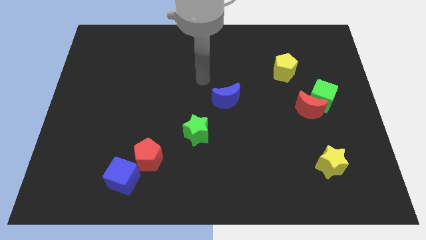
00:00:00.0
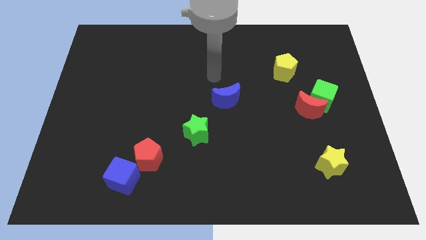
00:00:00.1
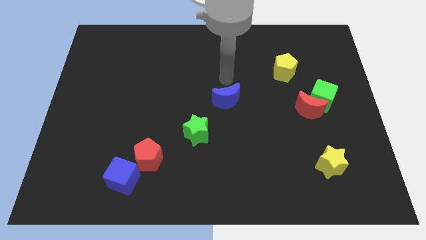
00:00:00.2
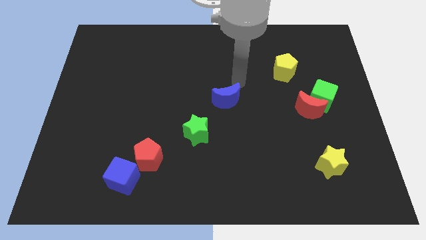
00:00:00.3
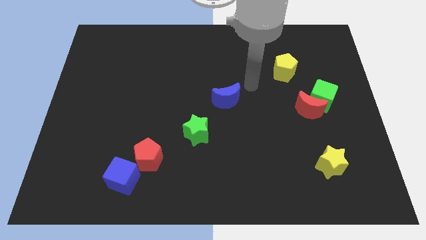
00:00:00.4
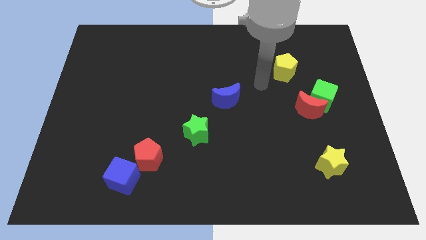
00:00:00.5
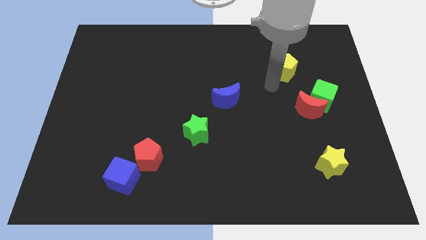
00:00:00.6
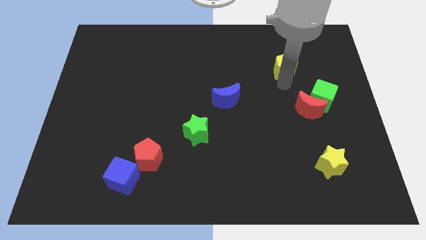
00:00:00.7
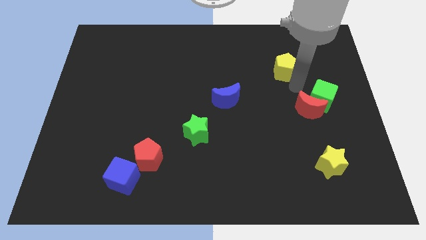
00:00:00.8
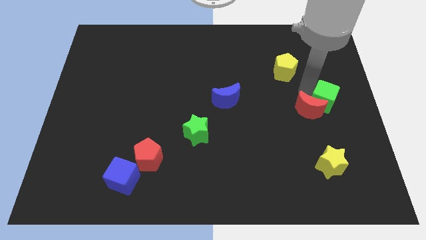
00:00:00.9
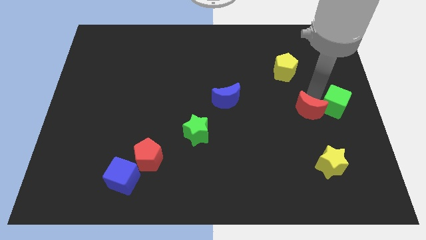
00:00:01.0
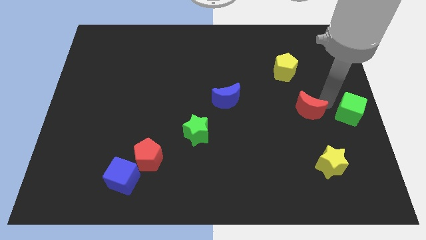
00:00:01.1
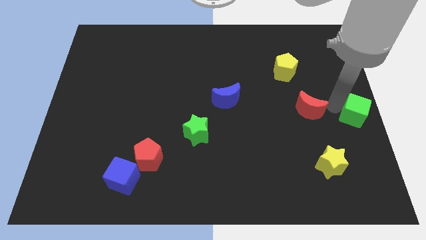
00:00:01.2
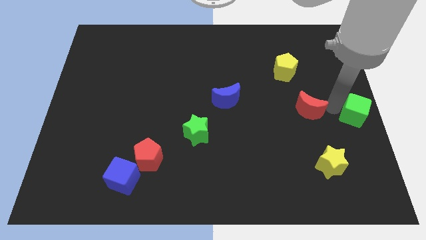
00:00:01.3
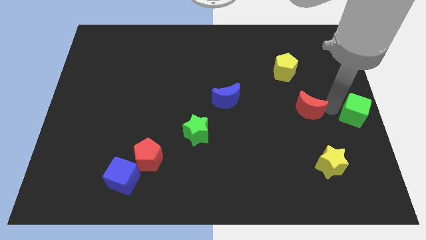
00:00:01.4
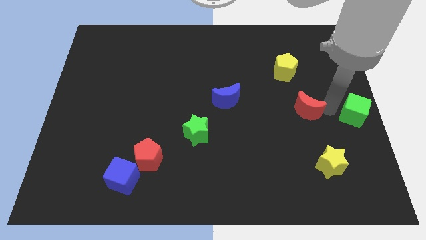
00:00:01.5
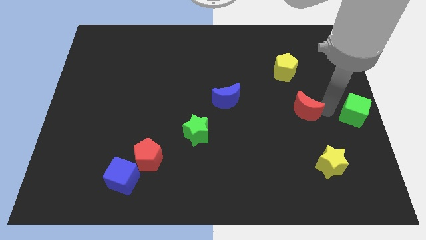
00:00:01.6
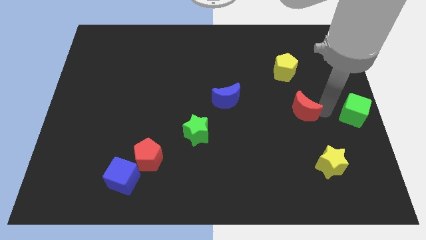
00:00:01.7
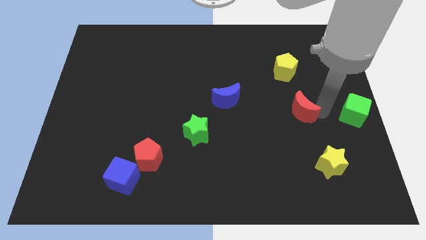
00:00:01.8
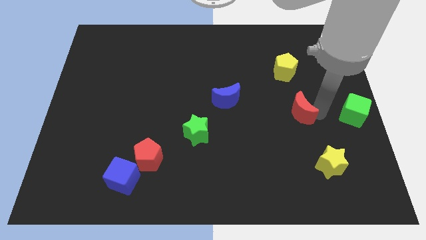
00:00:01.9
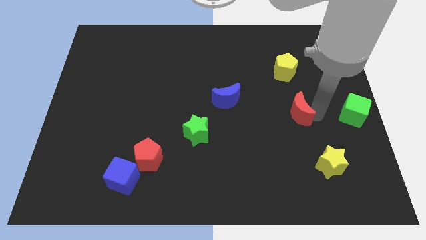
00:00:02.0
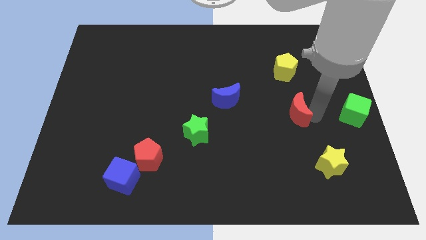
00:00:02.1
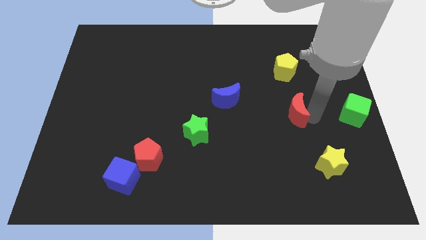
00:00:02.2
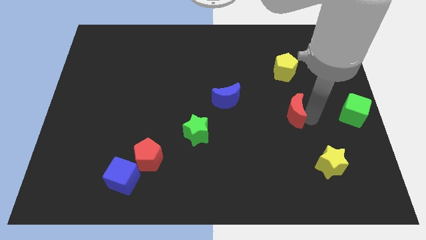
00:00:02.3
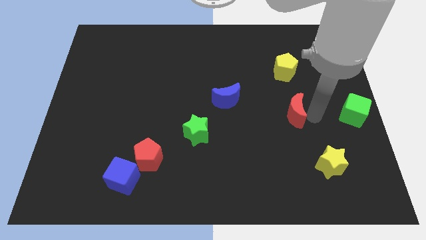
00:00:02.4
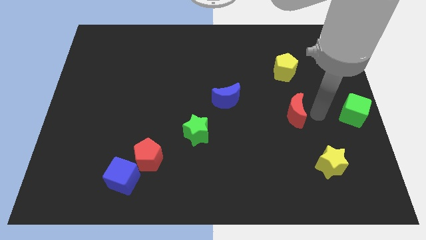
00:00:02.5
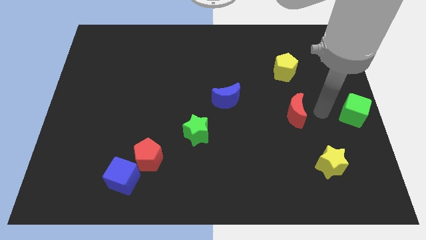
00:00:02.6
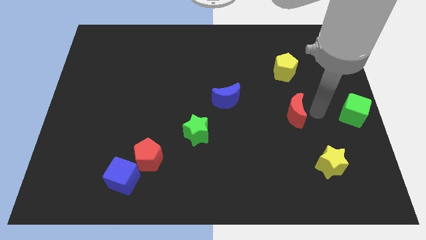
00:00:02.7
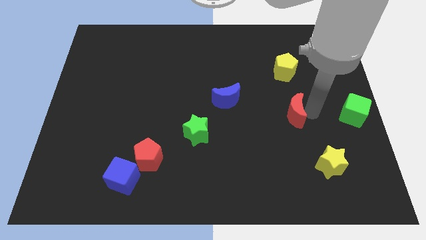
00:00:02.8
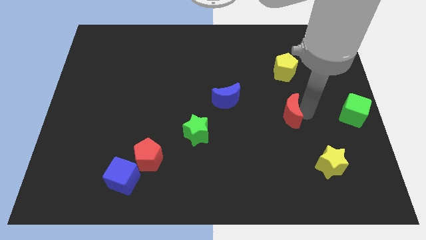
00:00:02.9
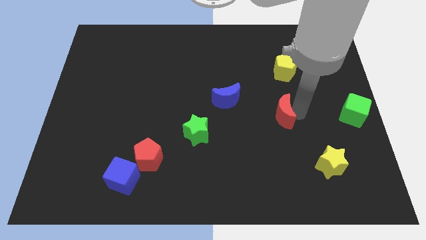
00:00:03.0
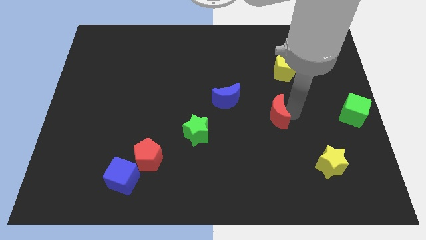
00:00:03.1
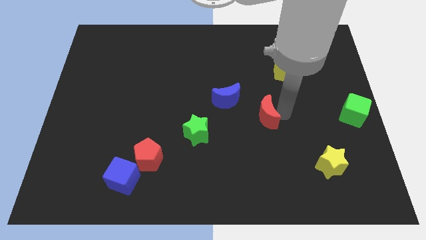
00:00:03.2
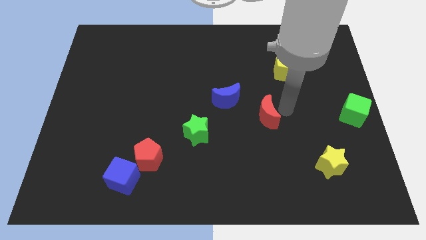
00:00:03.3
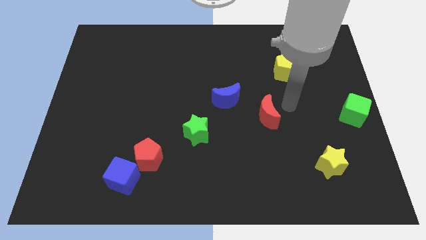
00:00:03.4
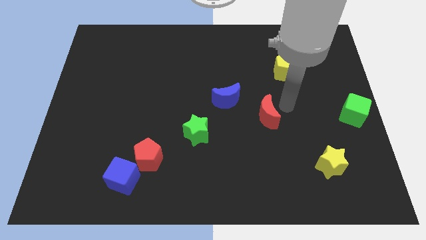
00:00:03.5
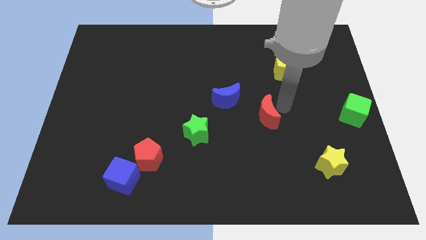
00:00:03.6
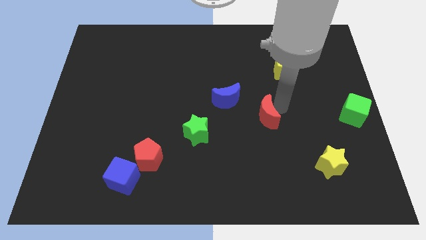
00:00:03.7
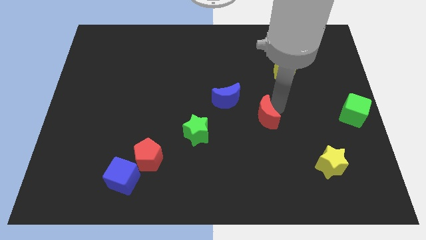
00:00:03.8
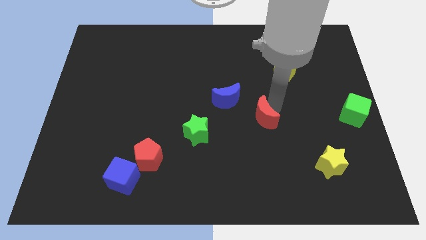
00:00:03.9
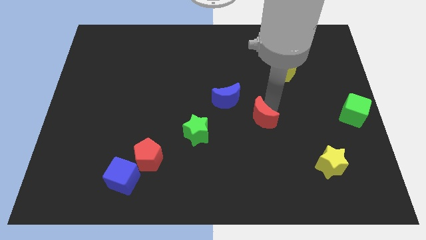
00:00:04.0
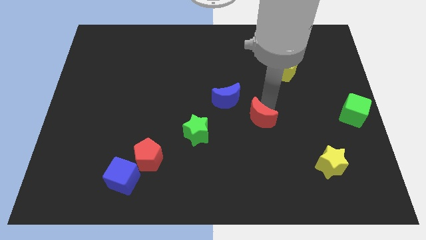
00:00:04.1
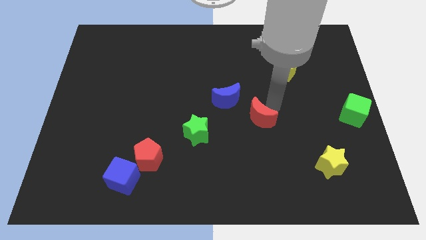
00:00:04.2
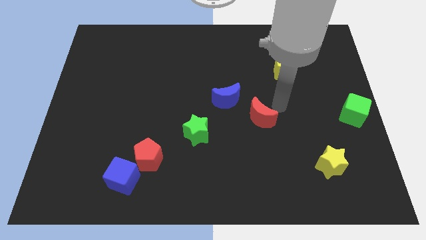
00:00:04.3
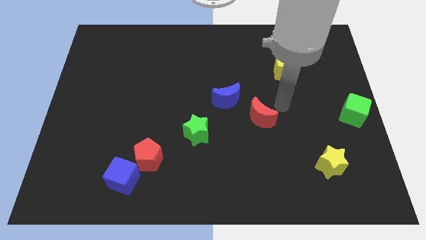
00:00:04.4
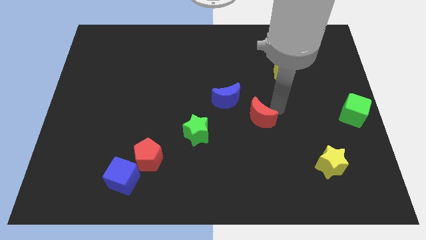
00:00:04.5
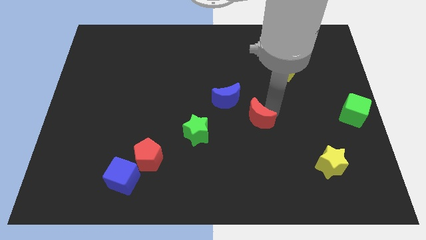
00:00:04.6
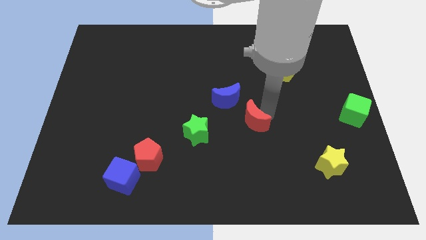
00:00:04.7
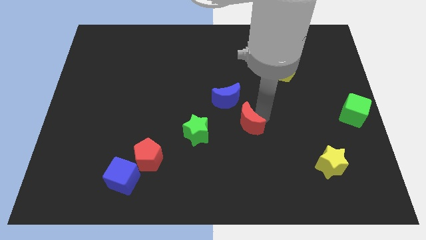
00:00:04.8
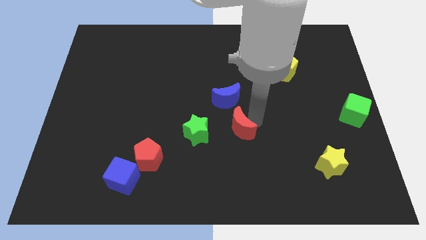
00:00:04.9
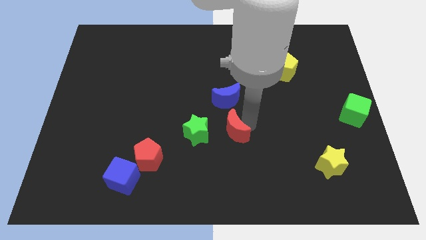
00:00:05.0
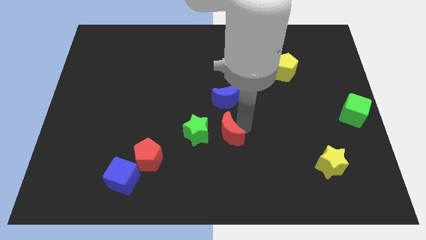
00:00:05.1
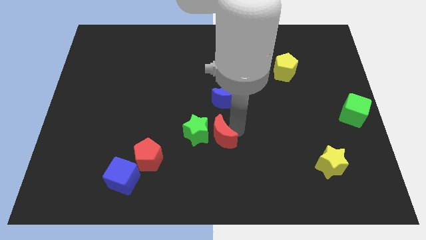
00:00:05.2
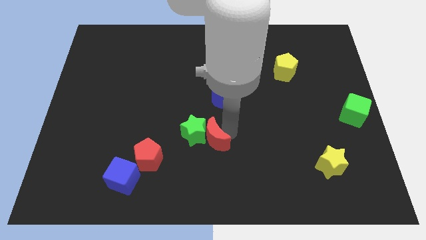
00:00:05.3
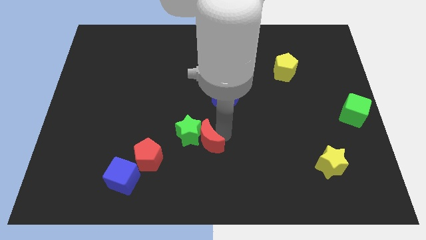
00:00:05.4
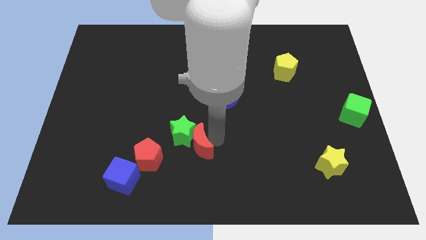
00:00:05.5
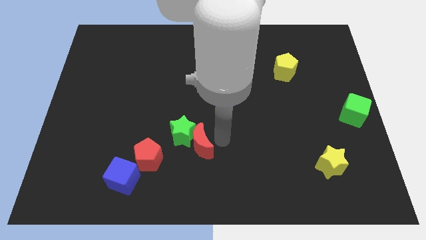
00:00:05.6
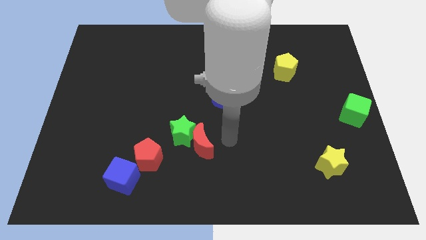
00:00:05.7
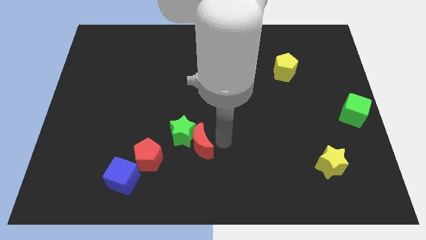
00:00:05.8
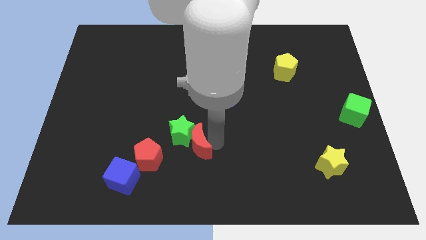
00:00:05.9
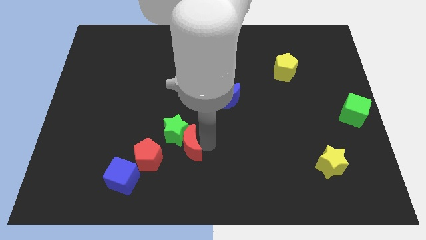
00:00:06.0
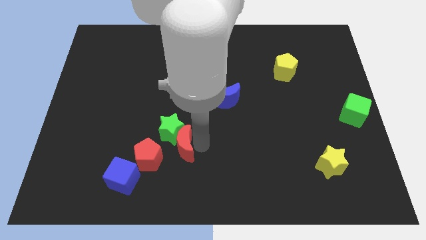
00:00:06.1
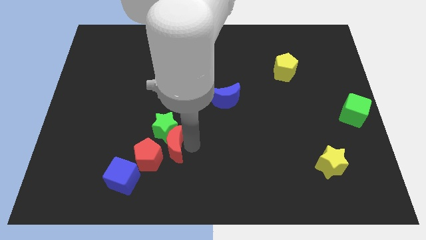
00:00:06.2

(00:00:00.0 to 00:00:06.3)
move the red moon close to the red pentagon
